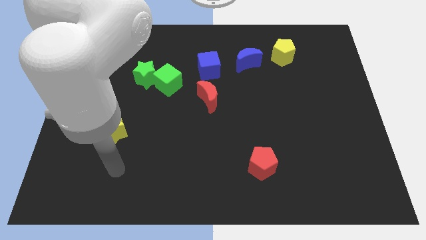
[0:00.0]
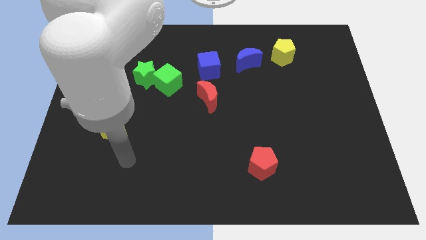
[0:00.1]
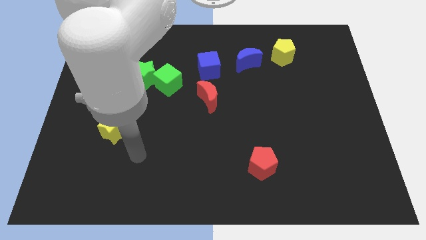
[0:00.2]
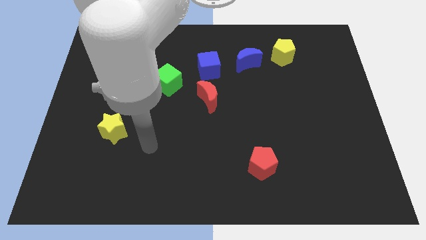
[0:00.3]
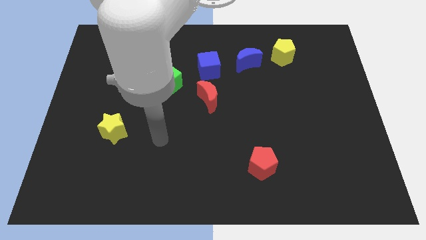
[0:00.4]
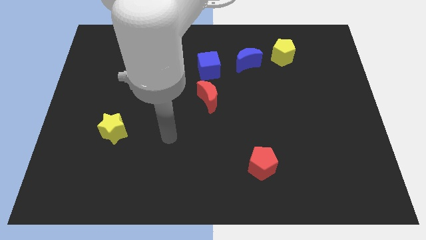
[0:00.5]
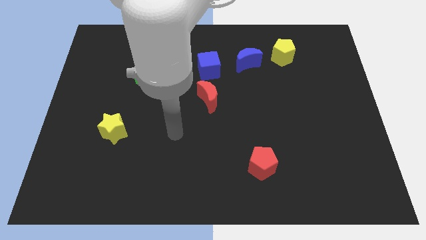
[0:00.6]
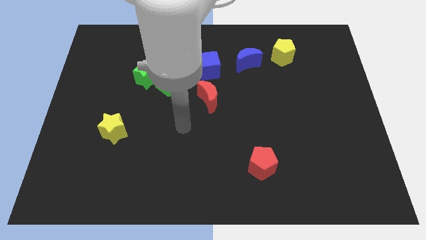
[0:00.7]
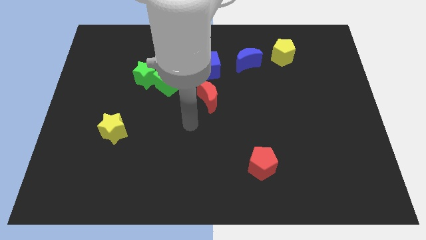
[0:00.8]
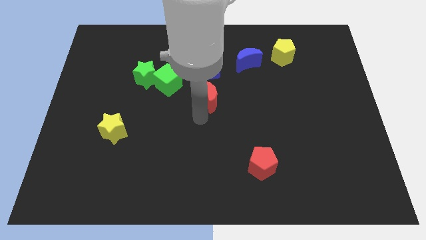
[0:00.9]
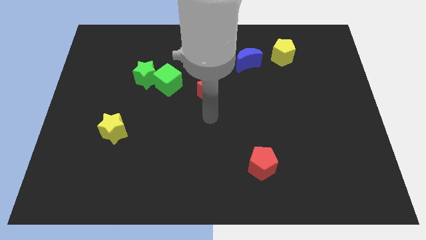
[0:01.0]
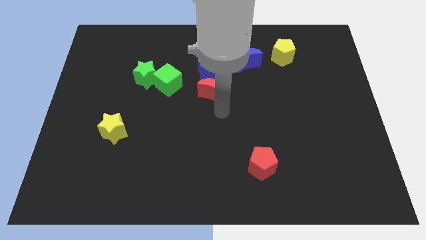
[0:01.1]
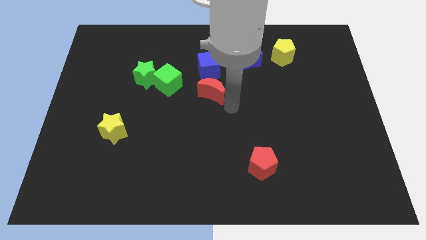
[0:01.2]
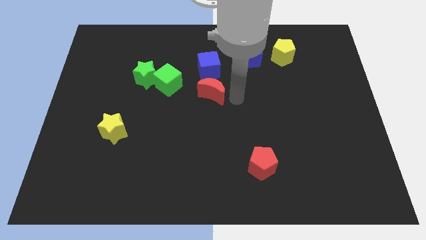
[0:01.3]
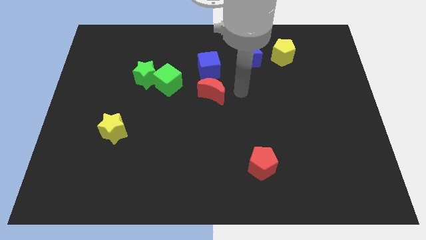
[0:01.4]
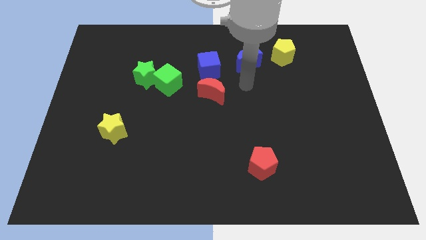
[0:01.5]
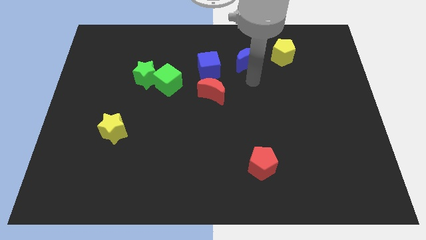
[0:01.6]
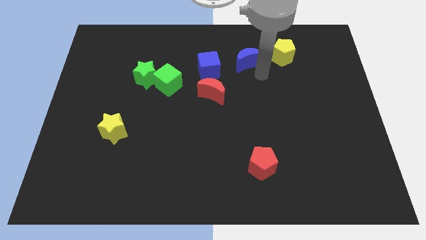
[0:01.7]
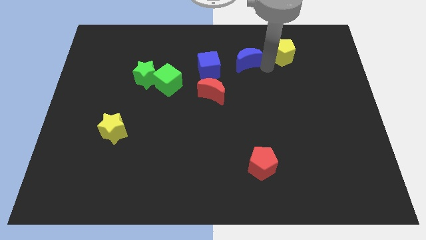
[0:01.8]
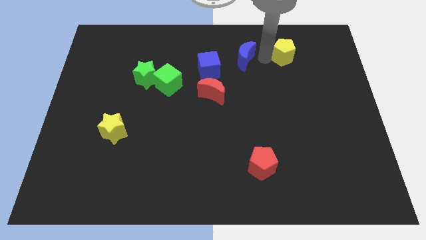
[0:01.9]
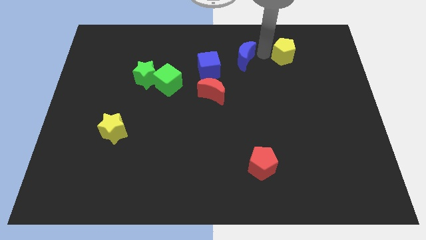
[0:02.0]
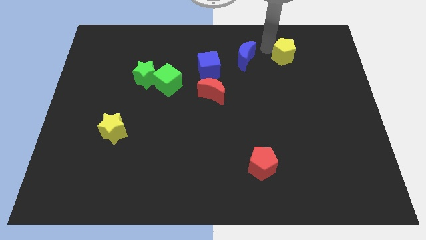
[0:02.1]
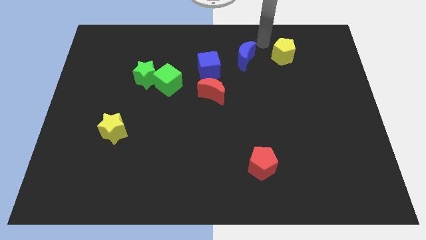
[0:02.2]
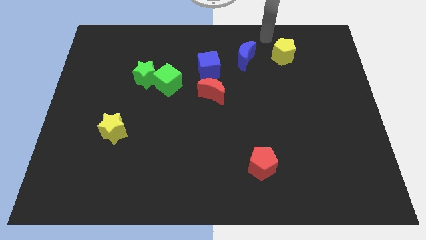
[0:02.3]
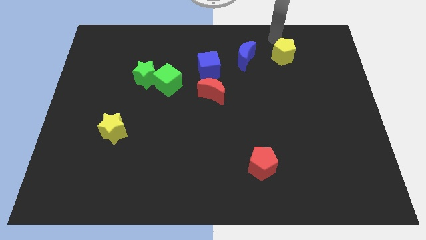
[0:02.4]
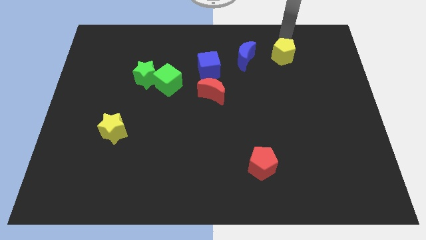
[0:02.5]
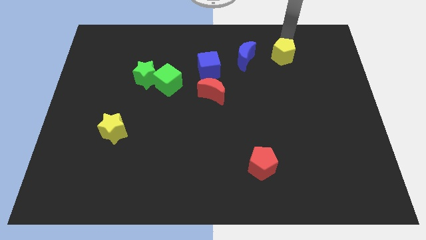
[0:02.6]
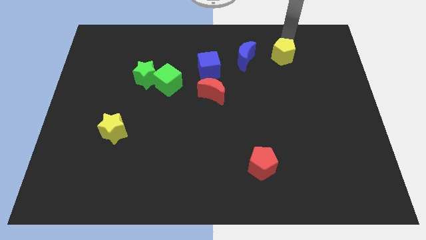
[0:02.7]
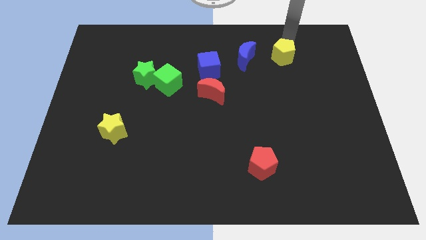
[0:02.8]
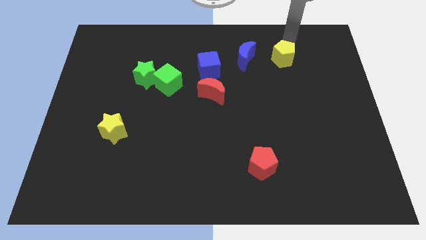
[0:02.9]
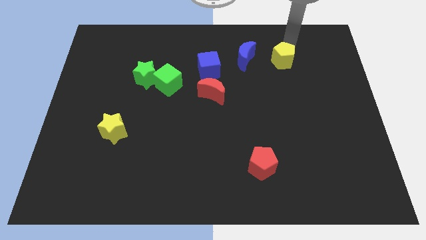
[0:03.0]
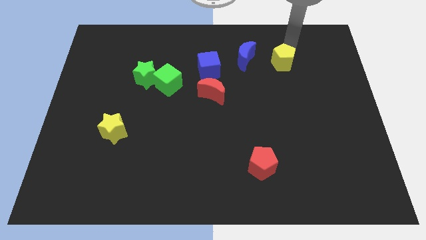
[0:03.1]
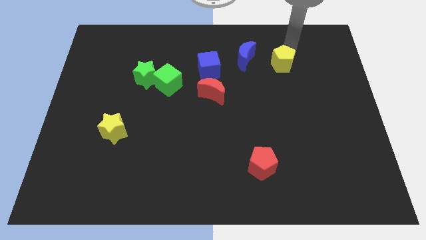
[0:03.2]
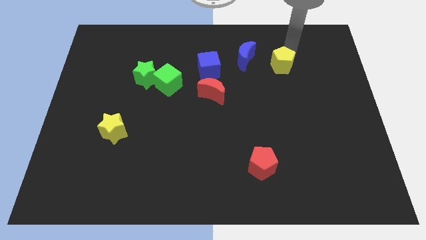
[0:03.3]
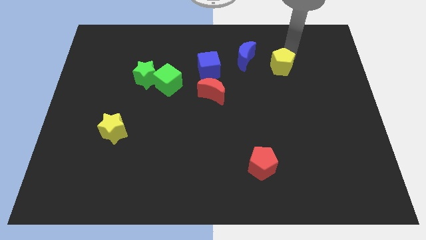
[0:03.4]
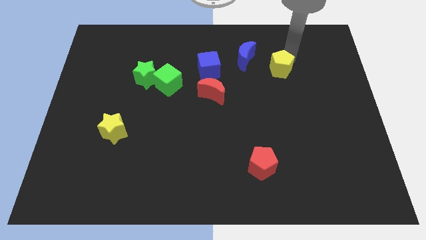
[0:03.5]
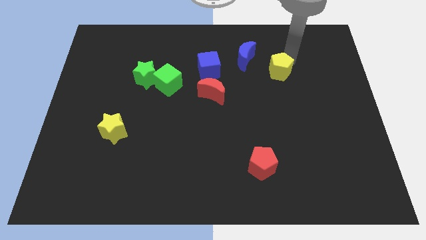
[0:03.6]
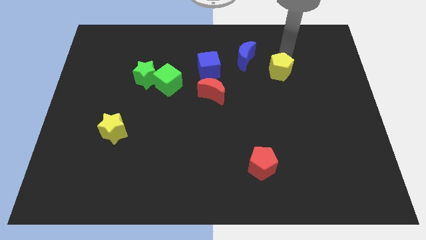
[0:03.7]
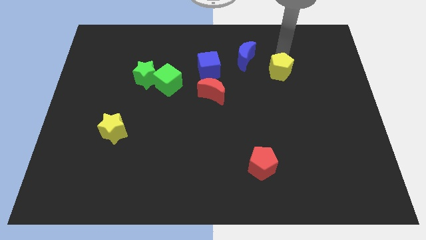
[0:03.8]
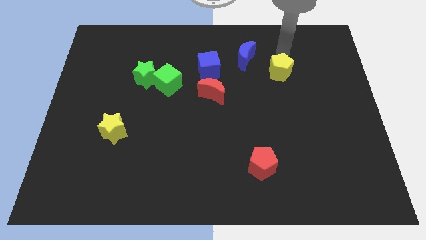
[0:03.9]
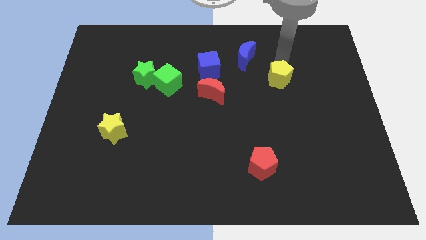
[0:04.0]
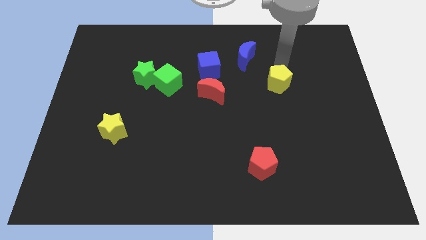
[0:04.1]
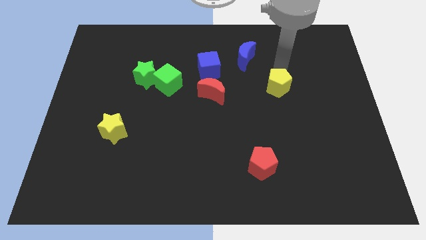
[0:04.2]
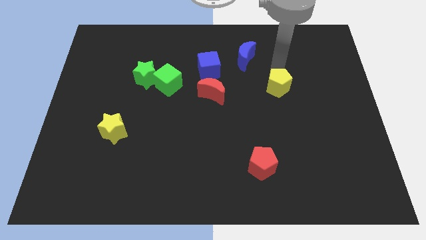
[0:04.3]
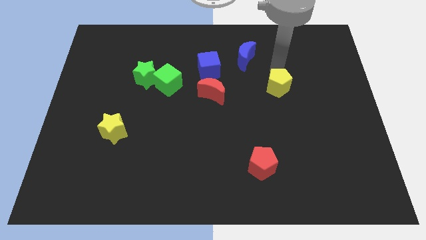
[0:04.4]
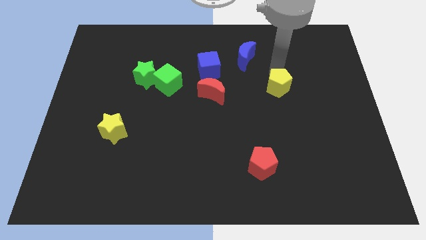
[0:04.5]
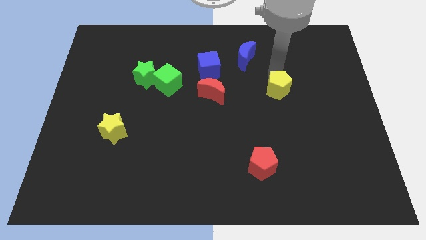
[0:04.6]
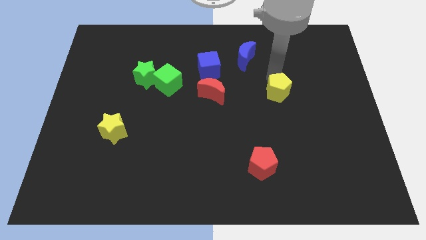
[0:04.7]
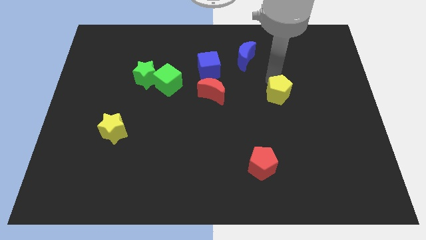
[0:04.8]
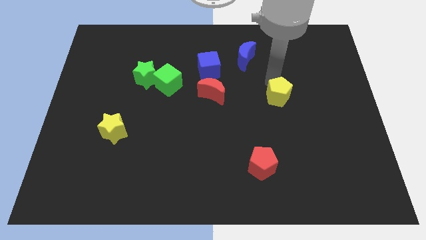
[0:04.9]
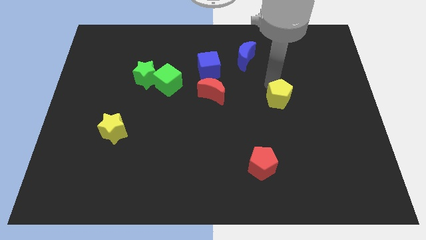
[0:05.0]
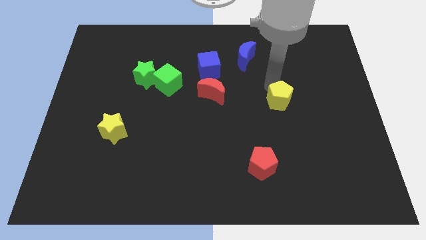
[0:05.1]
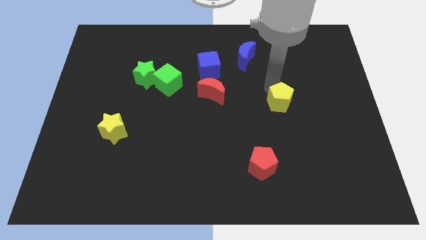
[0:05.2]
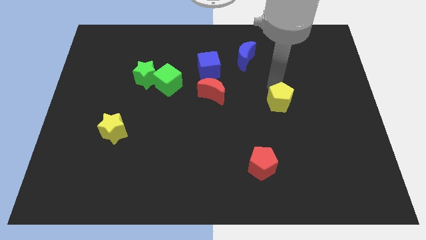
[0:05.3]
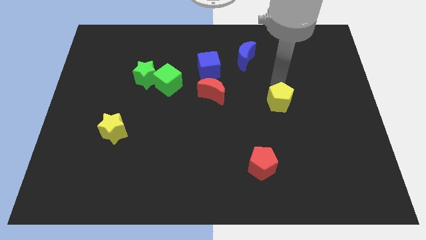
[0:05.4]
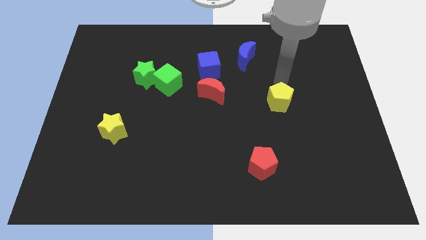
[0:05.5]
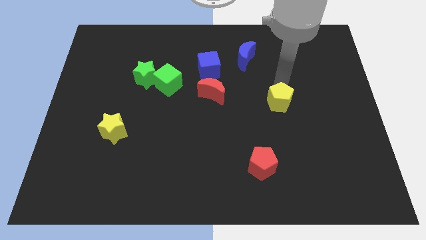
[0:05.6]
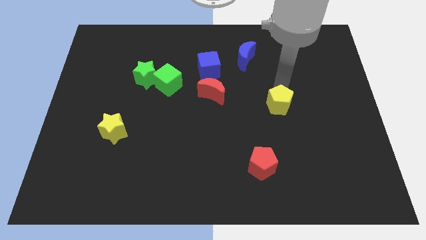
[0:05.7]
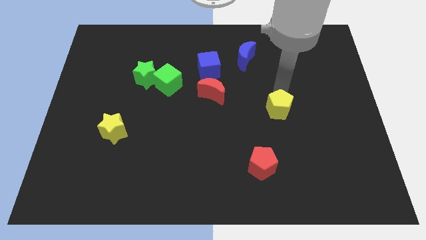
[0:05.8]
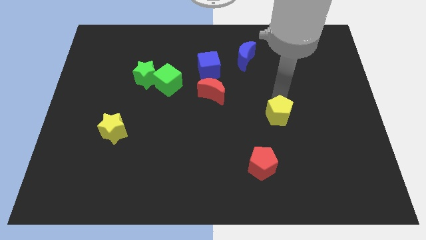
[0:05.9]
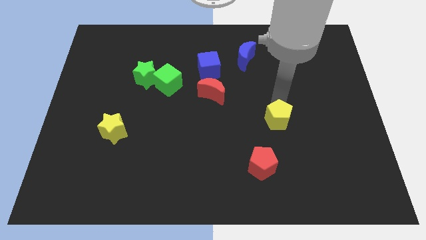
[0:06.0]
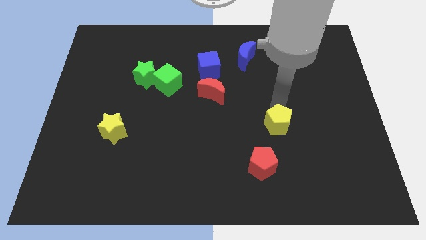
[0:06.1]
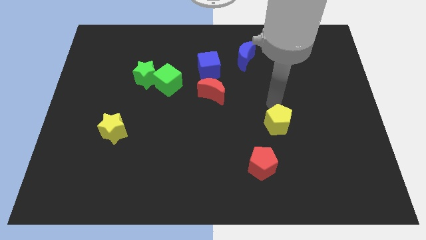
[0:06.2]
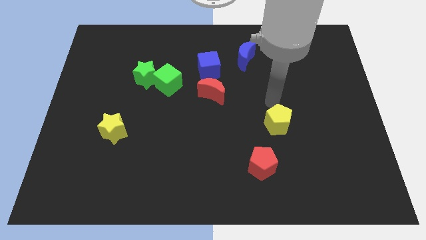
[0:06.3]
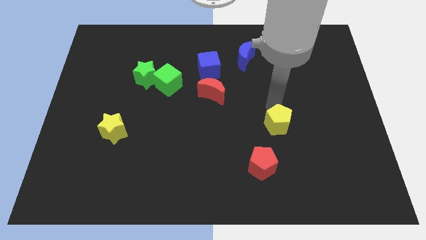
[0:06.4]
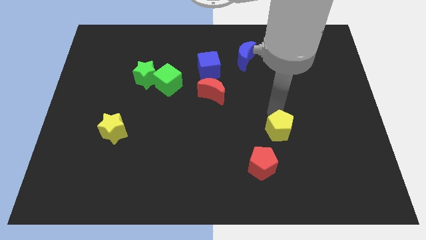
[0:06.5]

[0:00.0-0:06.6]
move the yellow pentagon diagonally up and to the right of the red pentagon
